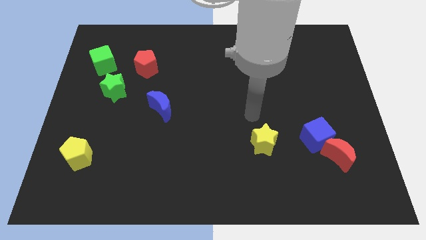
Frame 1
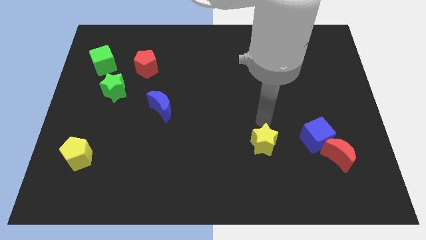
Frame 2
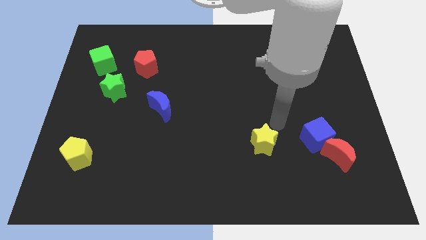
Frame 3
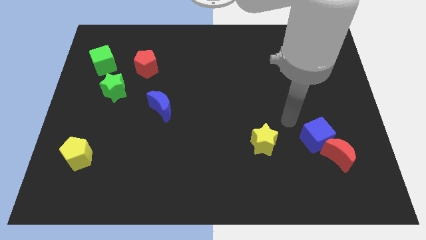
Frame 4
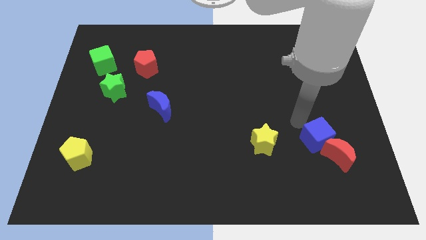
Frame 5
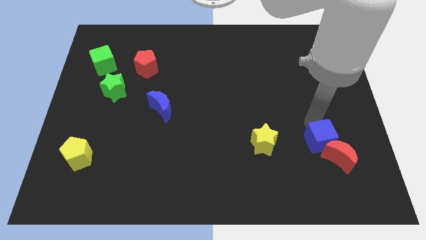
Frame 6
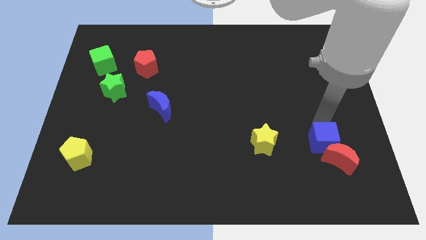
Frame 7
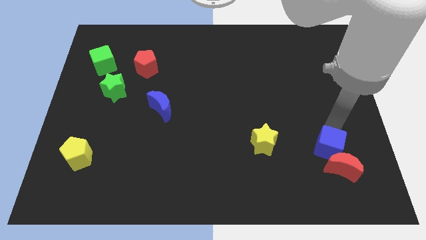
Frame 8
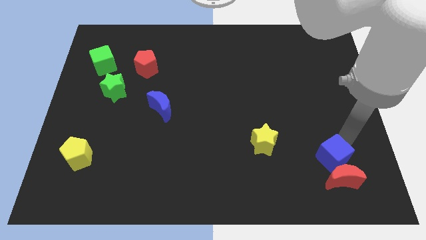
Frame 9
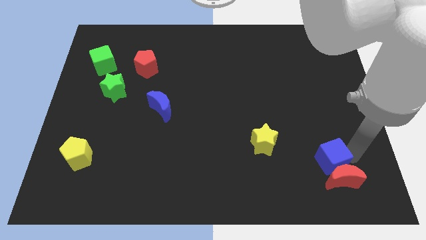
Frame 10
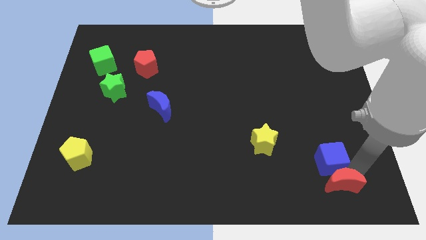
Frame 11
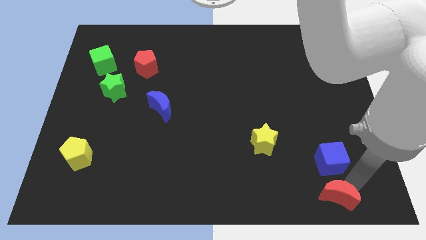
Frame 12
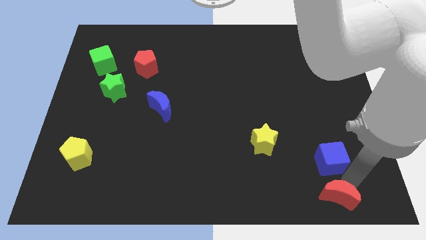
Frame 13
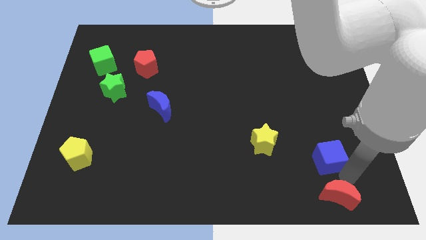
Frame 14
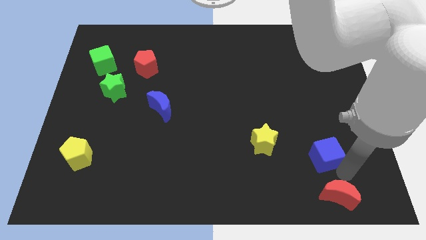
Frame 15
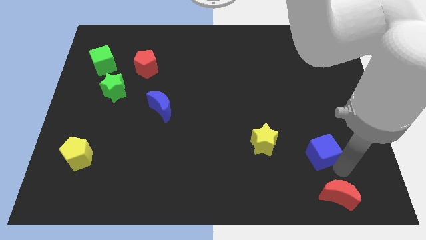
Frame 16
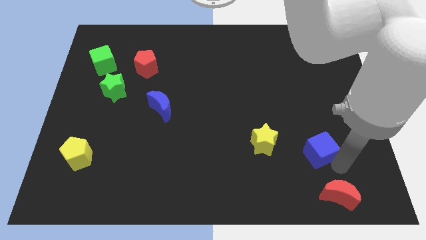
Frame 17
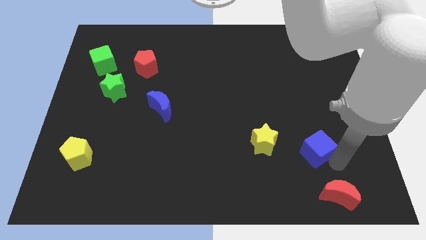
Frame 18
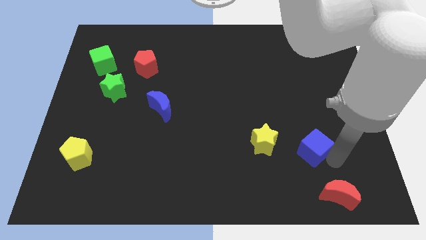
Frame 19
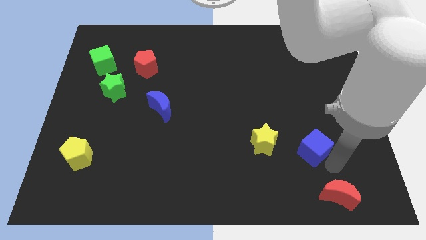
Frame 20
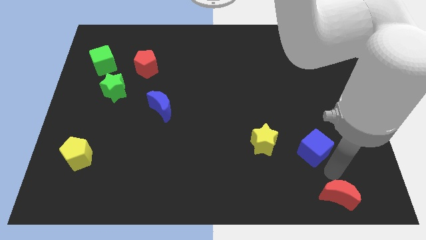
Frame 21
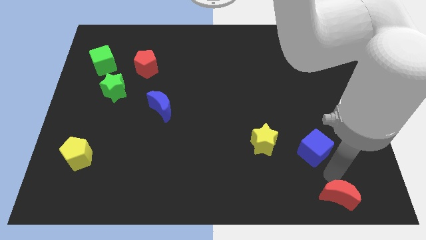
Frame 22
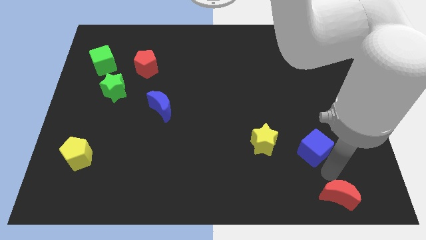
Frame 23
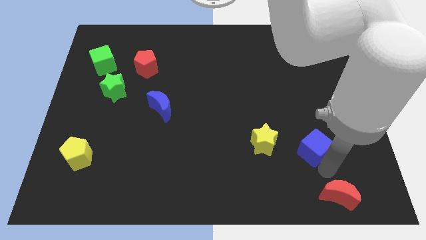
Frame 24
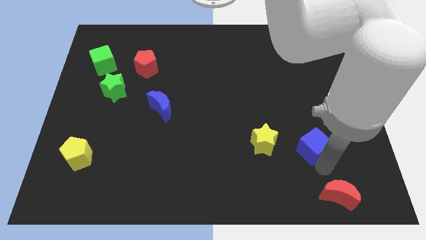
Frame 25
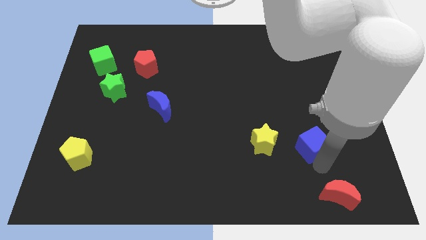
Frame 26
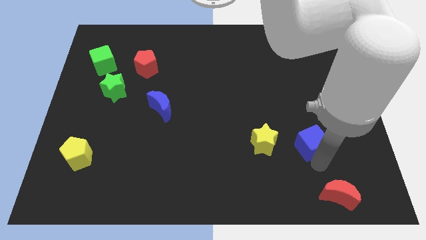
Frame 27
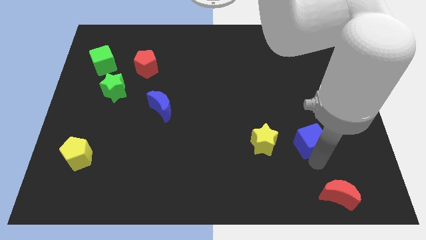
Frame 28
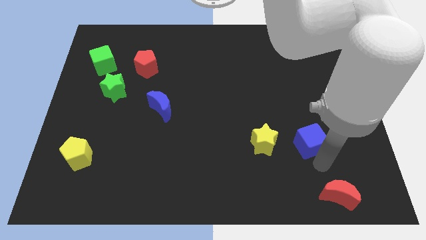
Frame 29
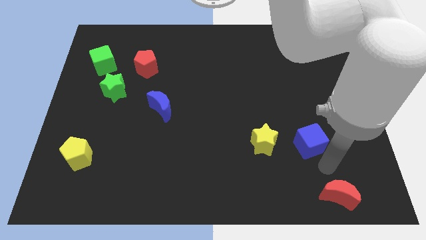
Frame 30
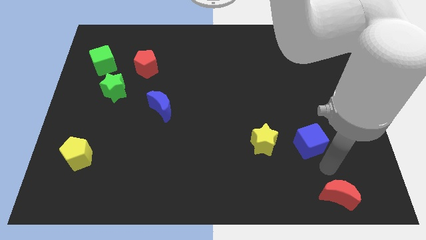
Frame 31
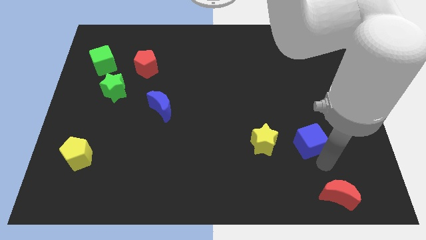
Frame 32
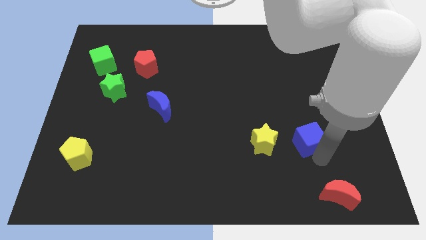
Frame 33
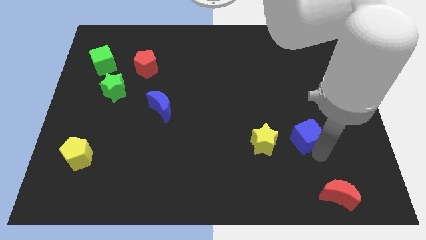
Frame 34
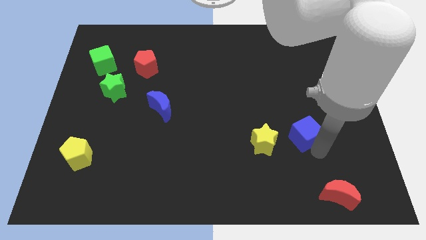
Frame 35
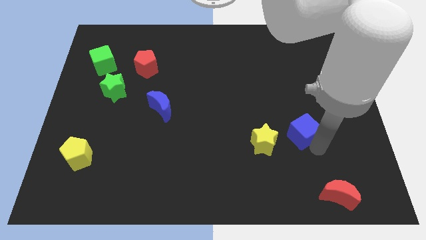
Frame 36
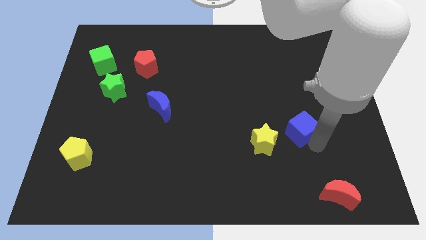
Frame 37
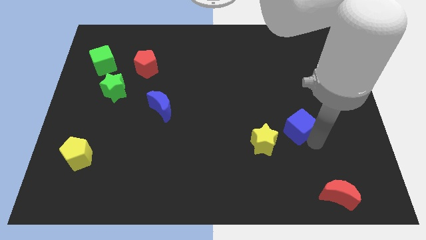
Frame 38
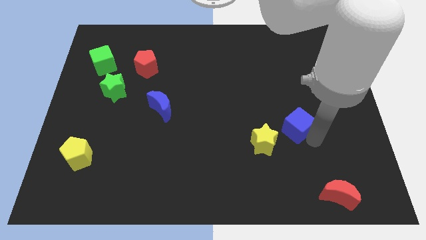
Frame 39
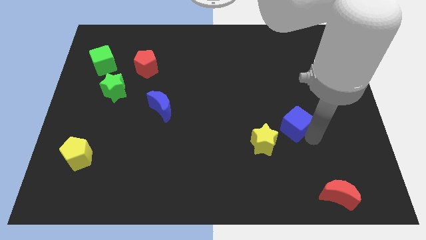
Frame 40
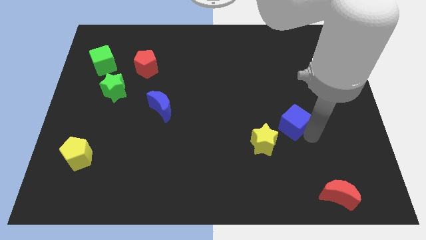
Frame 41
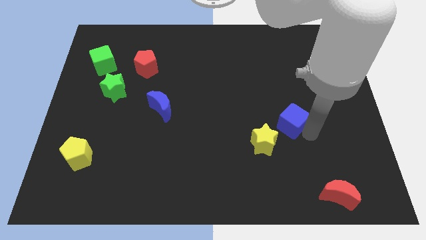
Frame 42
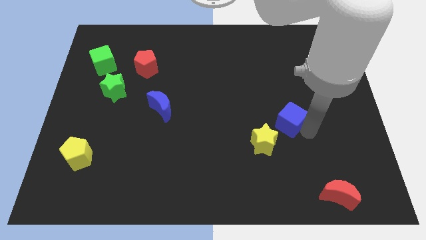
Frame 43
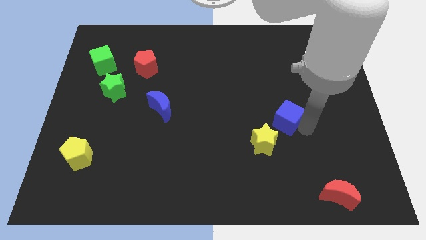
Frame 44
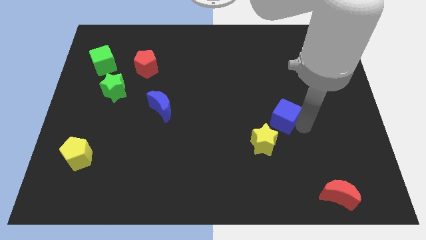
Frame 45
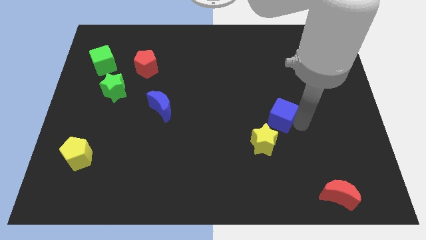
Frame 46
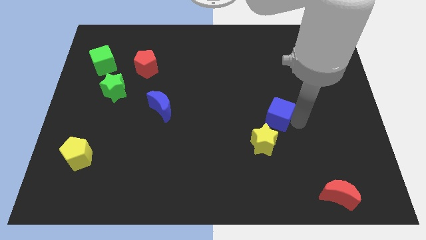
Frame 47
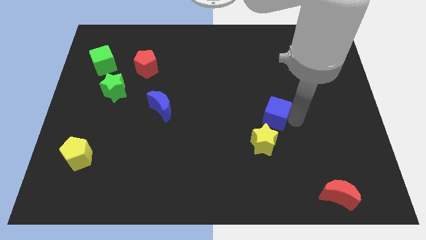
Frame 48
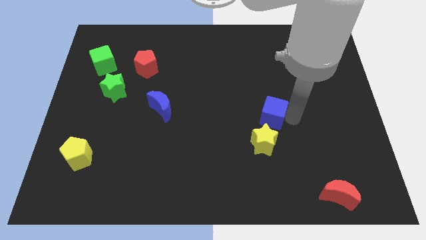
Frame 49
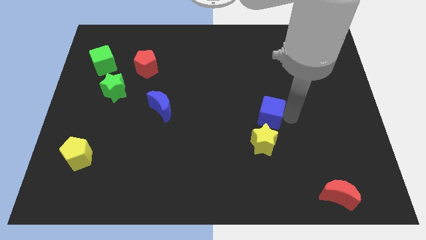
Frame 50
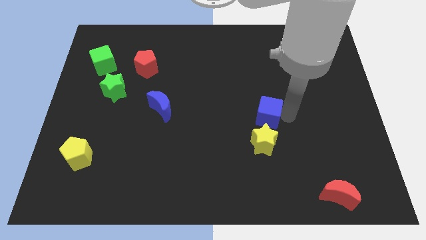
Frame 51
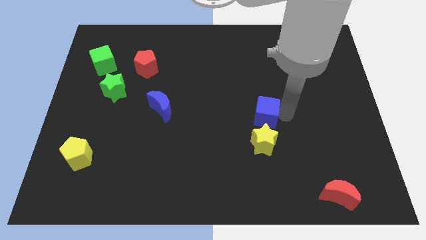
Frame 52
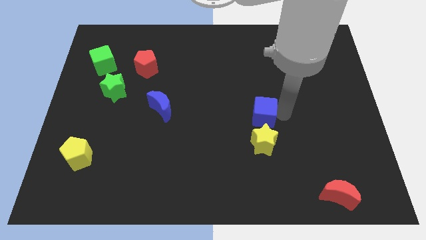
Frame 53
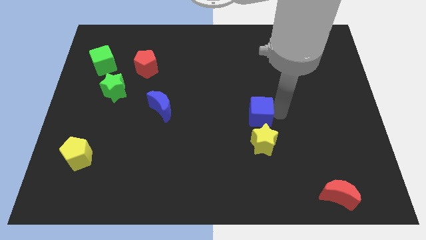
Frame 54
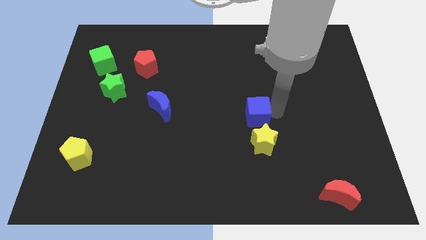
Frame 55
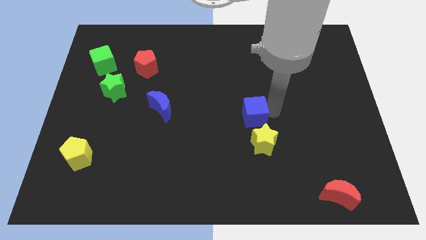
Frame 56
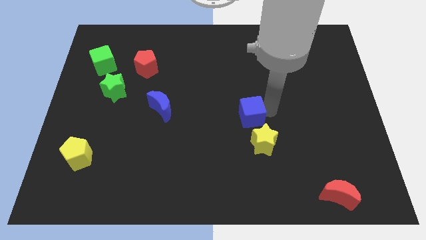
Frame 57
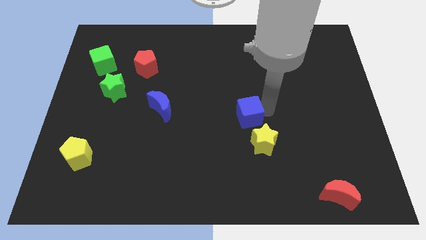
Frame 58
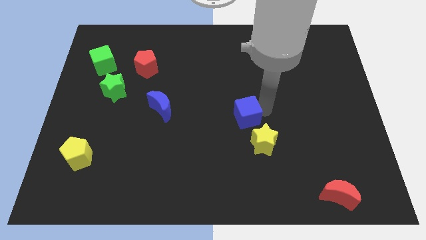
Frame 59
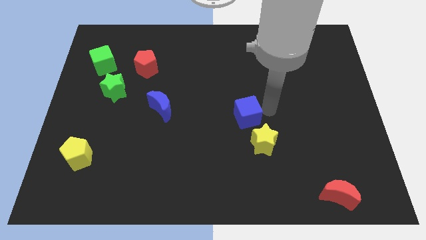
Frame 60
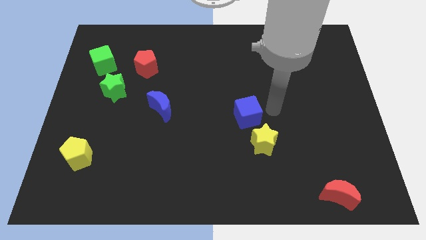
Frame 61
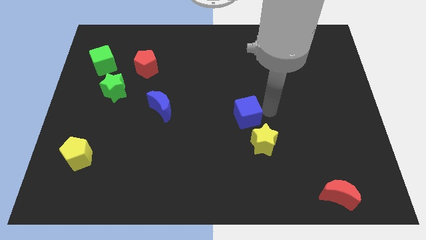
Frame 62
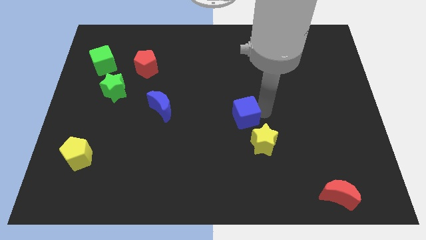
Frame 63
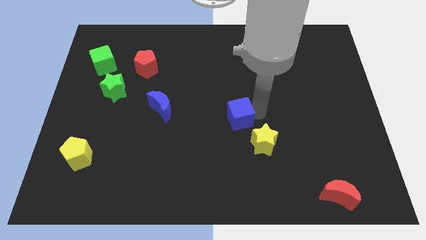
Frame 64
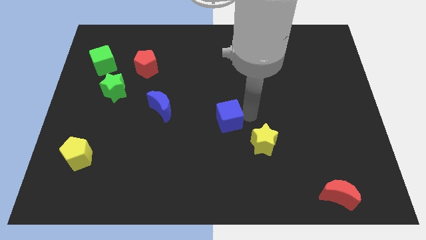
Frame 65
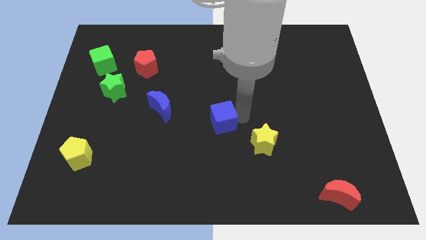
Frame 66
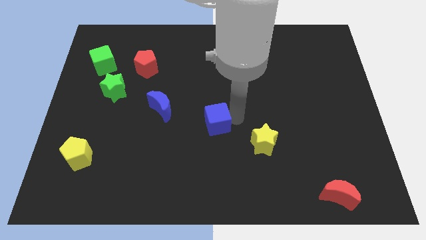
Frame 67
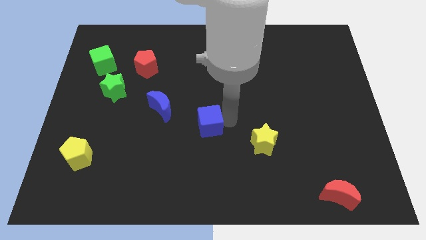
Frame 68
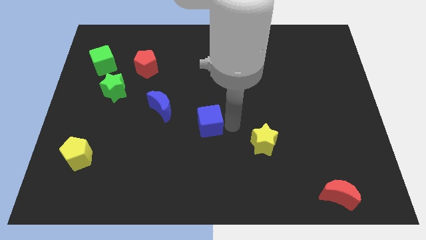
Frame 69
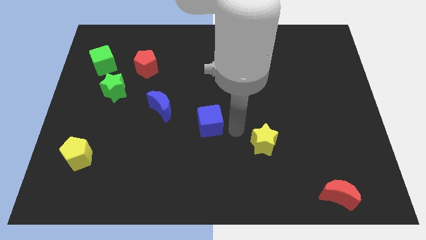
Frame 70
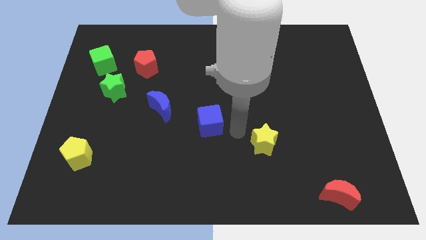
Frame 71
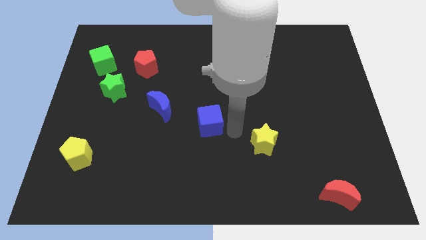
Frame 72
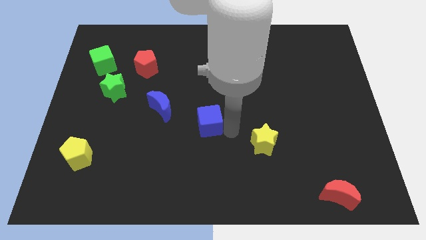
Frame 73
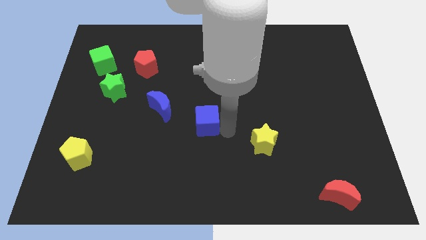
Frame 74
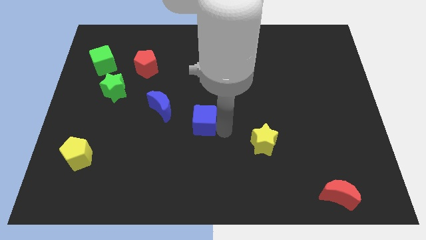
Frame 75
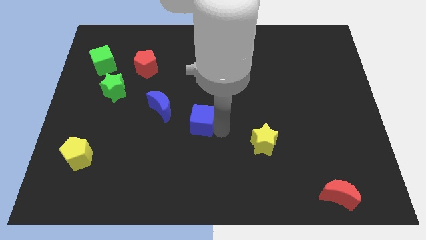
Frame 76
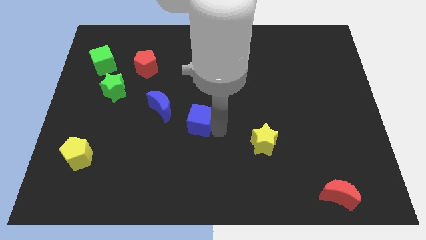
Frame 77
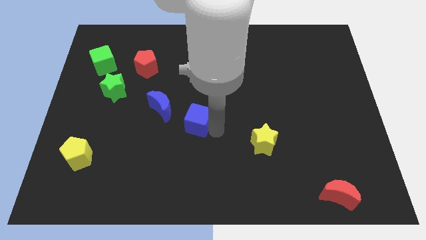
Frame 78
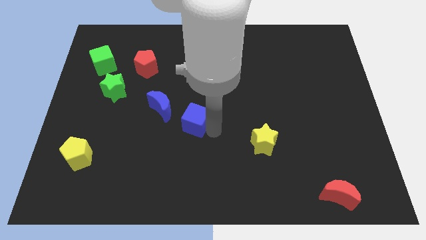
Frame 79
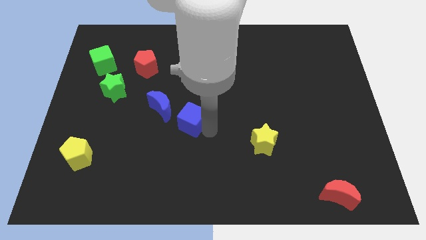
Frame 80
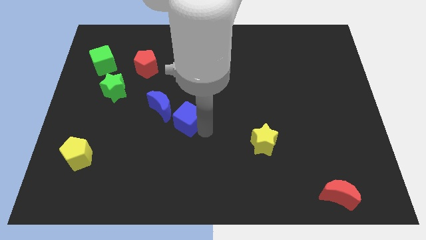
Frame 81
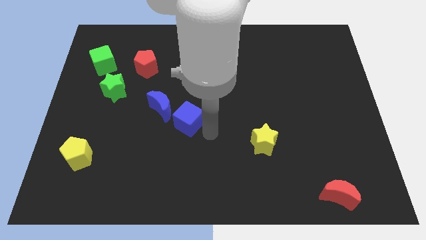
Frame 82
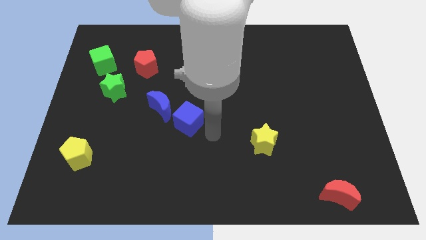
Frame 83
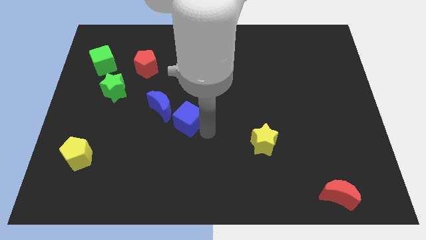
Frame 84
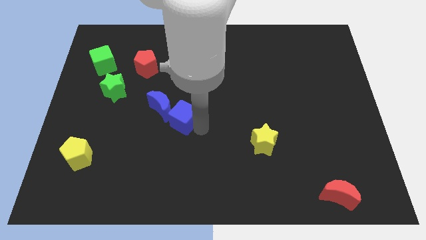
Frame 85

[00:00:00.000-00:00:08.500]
move the blue cube next to the blue moon
